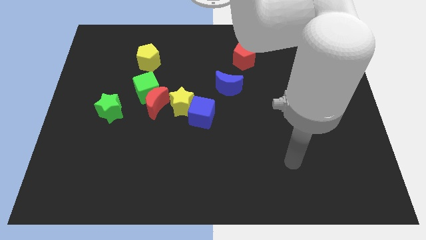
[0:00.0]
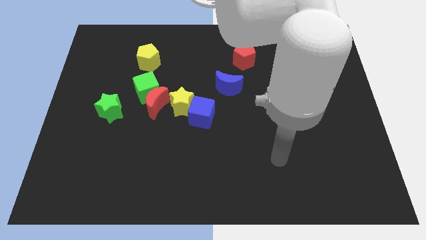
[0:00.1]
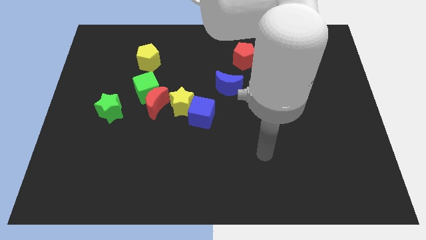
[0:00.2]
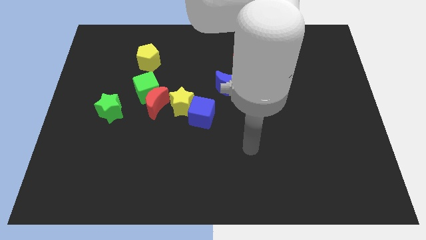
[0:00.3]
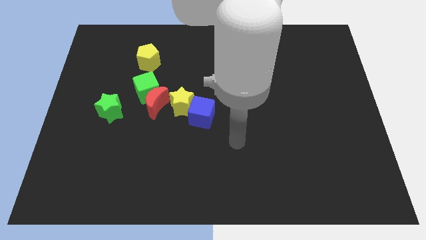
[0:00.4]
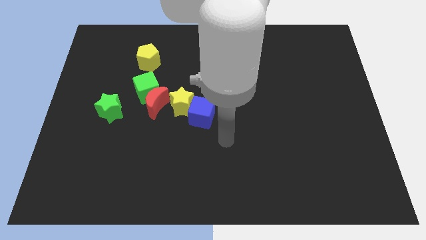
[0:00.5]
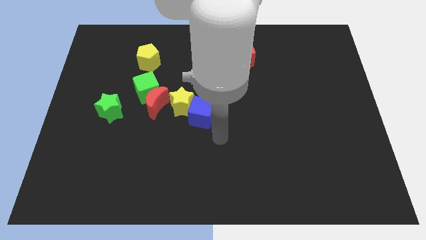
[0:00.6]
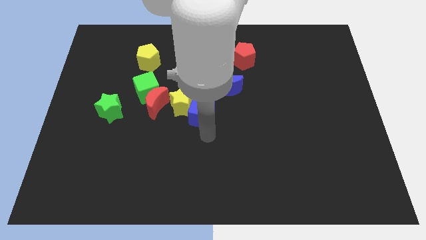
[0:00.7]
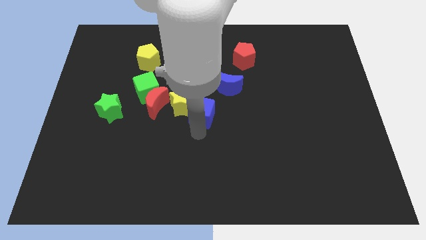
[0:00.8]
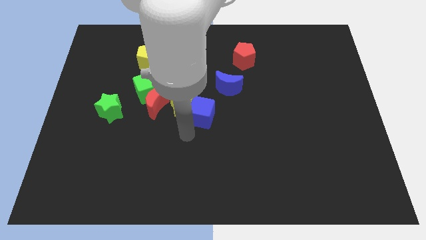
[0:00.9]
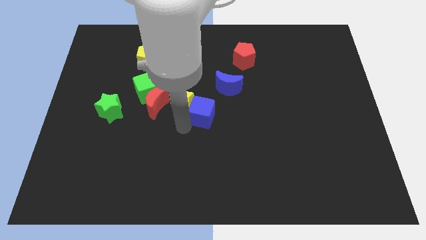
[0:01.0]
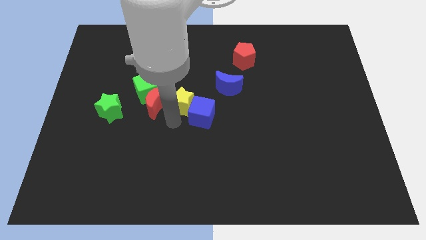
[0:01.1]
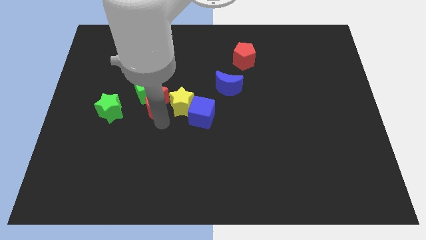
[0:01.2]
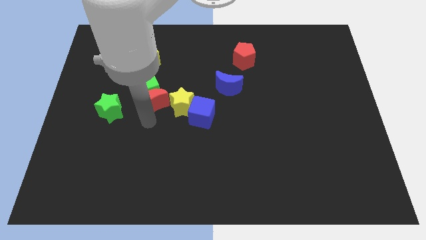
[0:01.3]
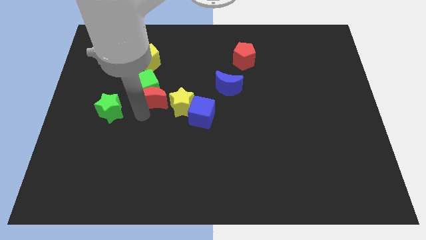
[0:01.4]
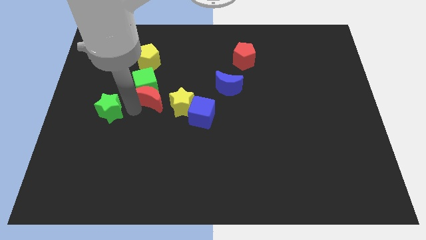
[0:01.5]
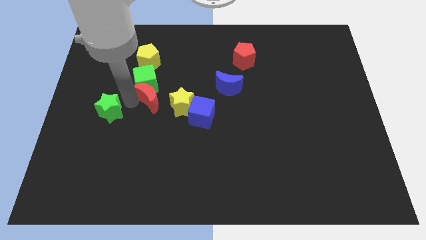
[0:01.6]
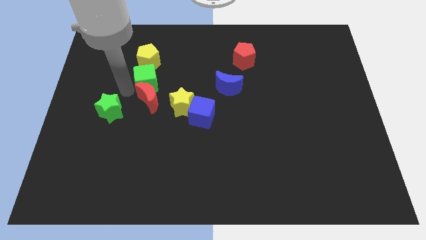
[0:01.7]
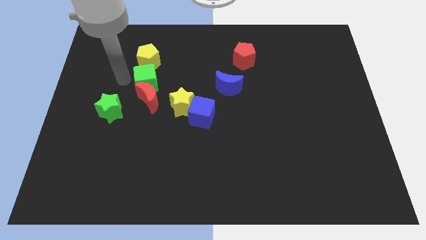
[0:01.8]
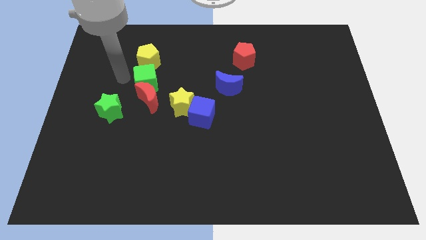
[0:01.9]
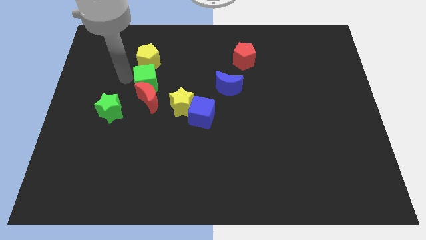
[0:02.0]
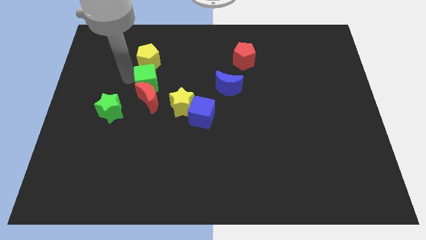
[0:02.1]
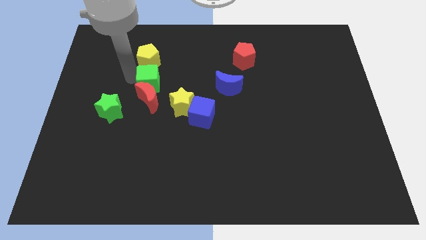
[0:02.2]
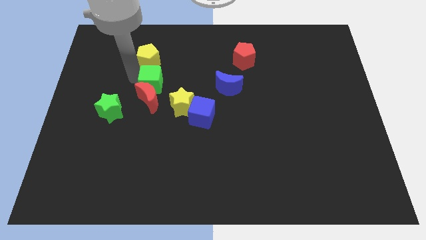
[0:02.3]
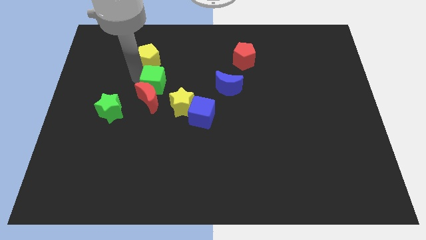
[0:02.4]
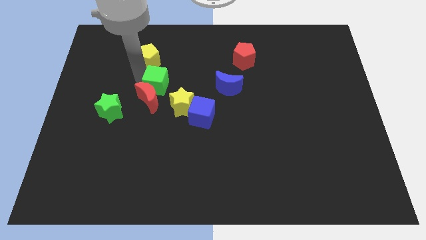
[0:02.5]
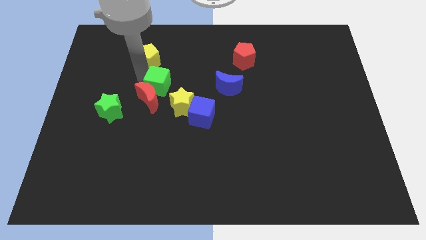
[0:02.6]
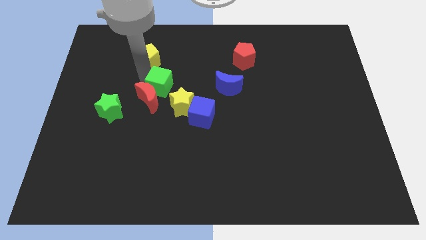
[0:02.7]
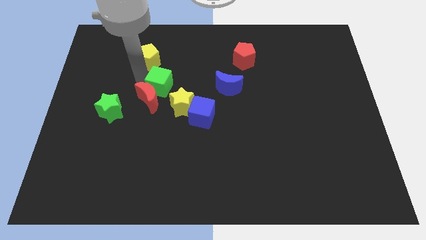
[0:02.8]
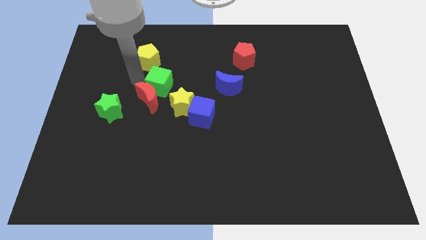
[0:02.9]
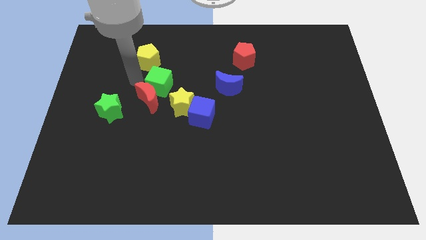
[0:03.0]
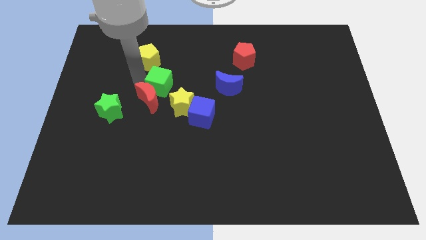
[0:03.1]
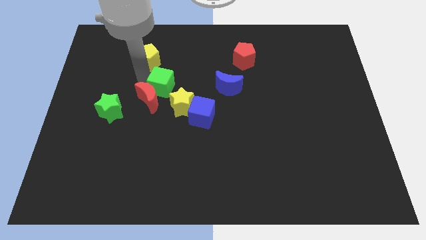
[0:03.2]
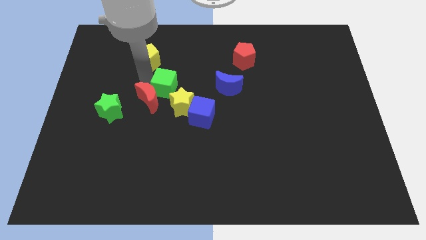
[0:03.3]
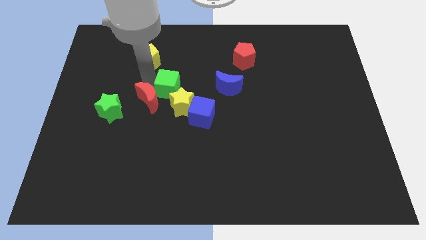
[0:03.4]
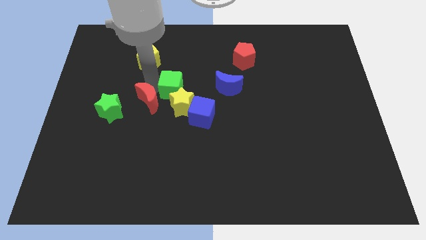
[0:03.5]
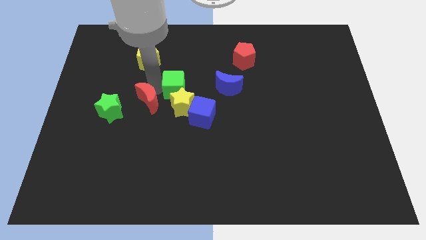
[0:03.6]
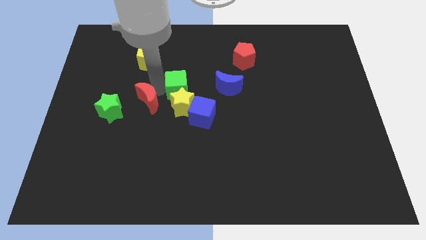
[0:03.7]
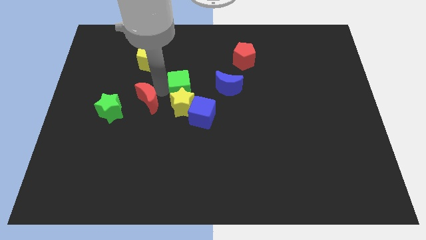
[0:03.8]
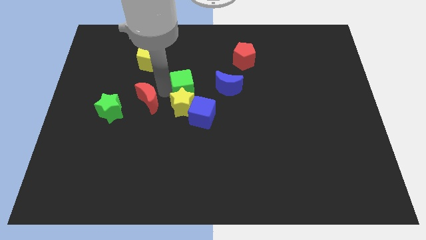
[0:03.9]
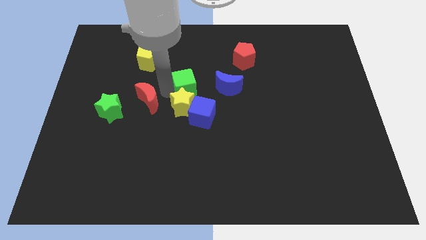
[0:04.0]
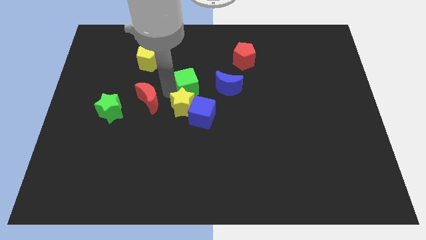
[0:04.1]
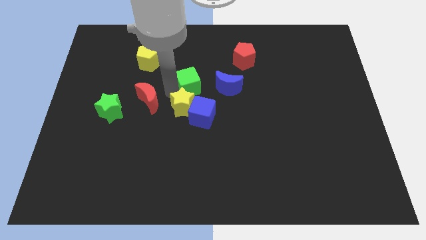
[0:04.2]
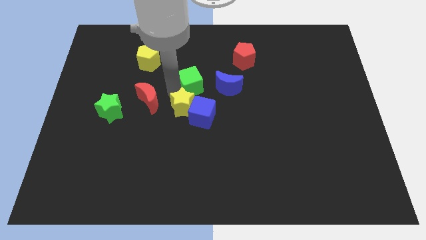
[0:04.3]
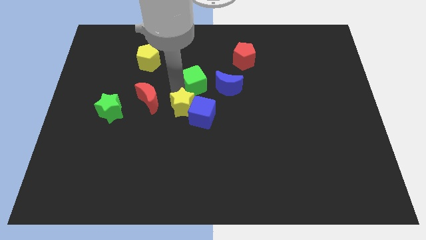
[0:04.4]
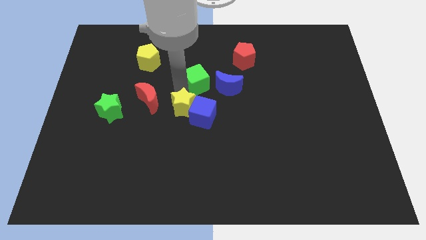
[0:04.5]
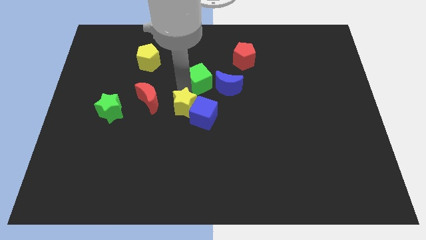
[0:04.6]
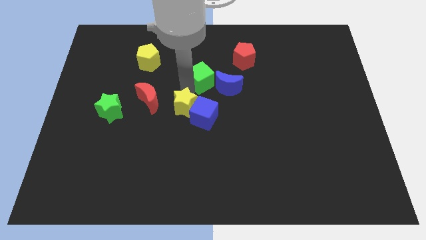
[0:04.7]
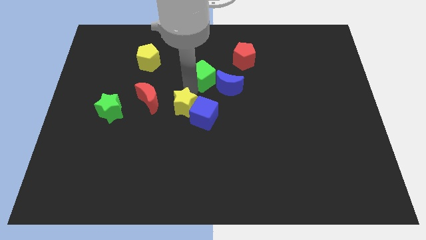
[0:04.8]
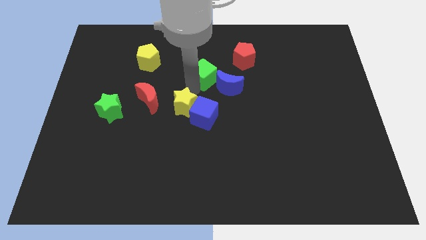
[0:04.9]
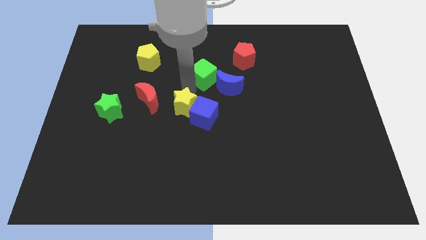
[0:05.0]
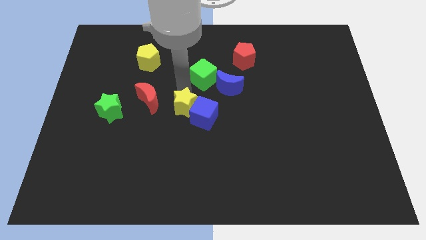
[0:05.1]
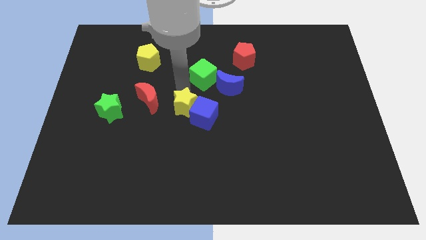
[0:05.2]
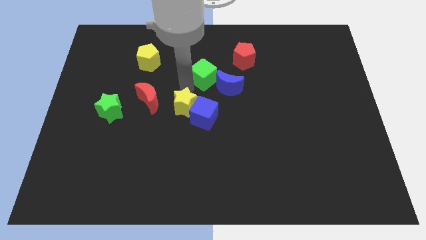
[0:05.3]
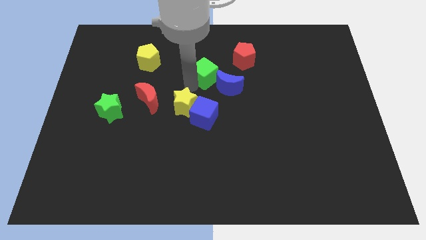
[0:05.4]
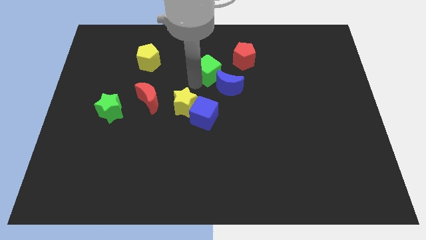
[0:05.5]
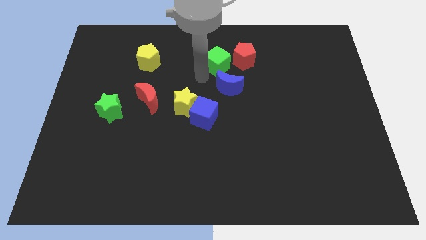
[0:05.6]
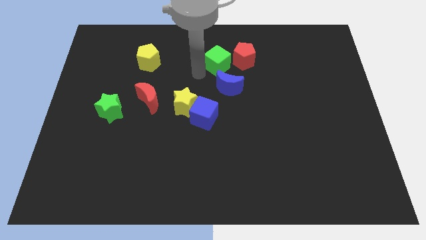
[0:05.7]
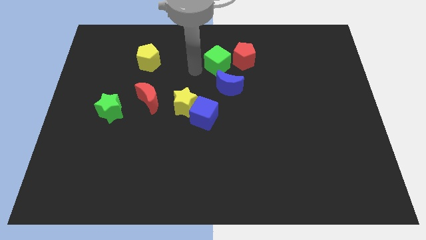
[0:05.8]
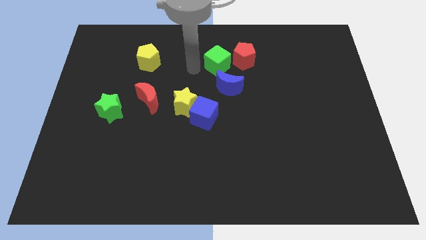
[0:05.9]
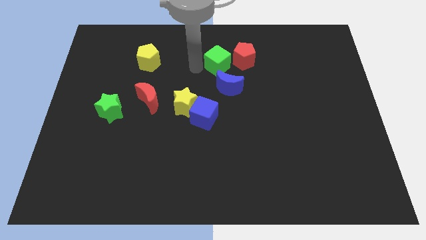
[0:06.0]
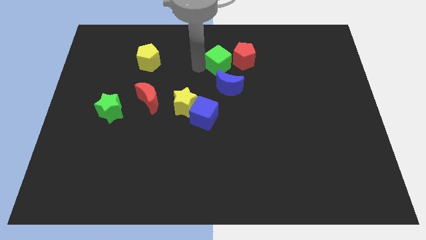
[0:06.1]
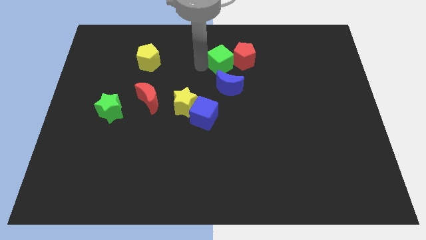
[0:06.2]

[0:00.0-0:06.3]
move the green cube close to the red pentagon

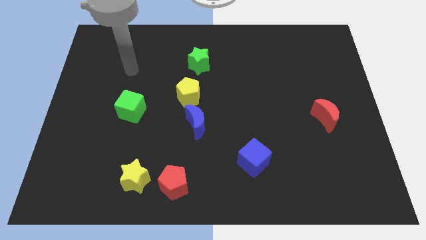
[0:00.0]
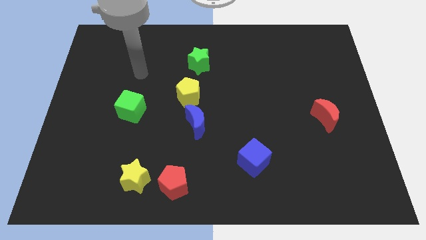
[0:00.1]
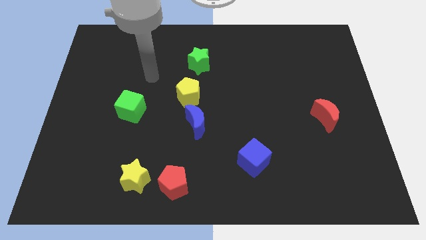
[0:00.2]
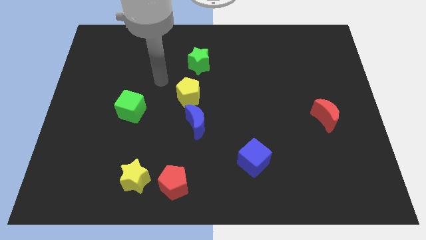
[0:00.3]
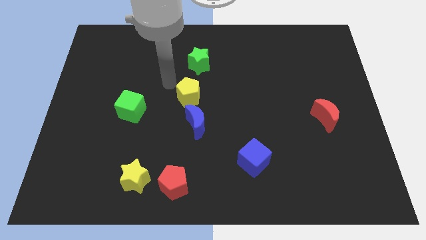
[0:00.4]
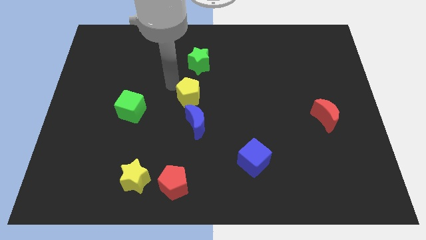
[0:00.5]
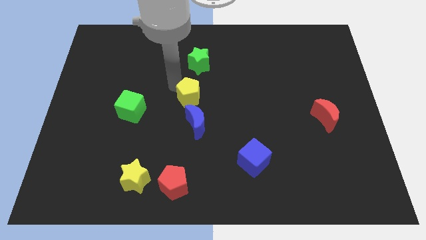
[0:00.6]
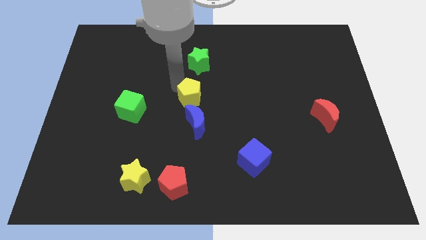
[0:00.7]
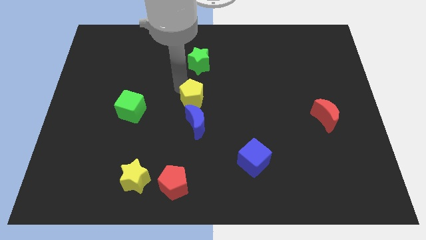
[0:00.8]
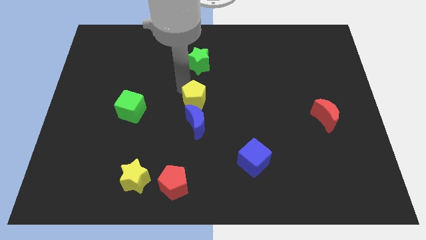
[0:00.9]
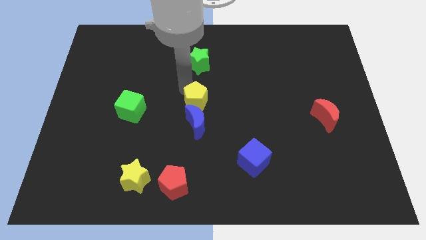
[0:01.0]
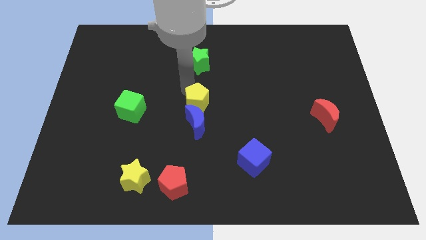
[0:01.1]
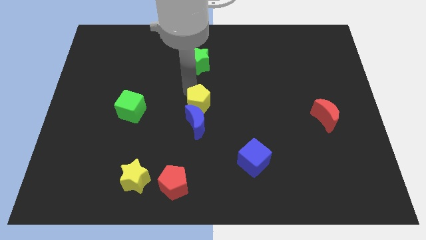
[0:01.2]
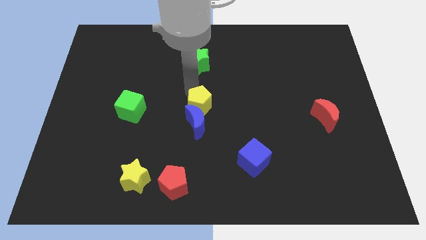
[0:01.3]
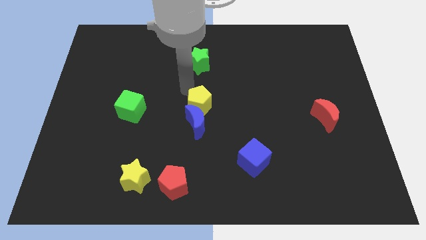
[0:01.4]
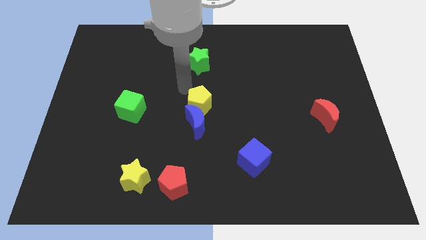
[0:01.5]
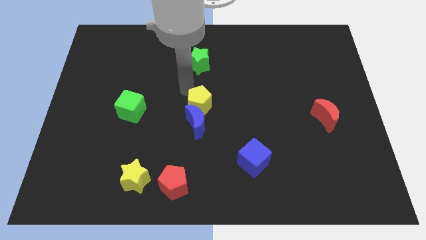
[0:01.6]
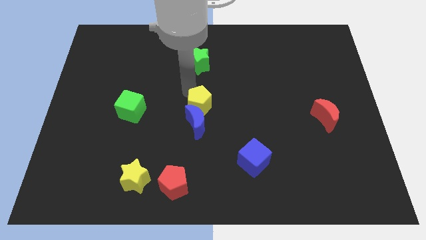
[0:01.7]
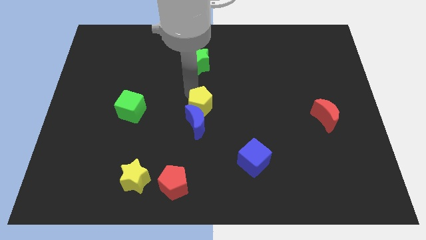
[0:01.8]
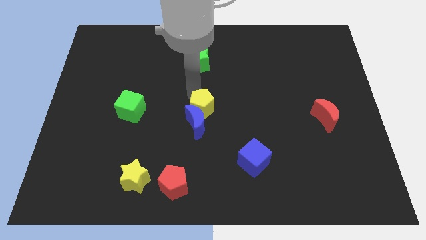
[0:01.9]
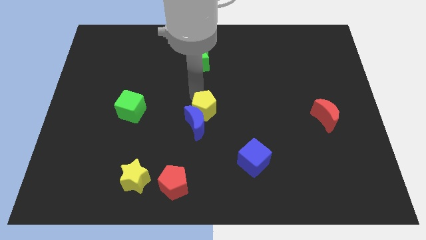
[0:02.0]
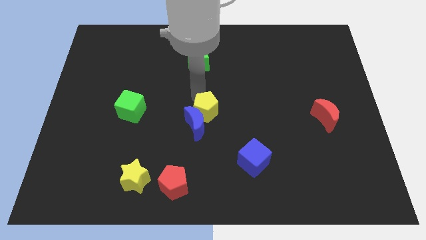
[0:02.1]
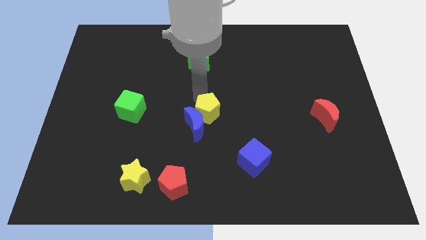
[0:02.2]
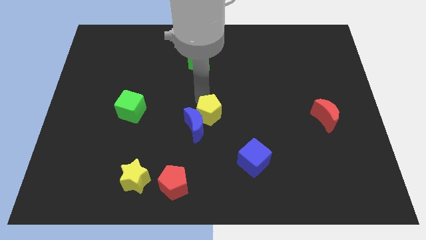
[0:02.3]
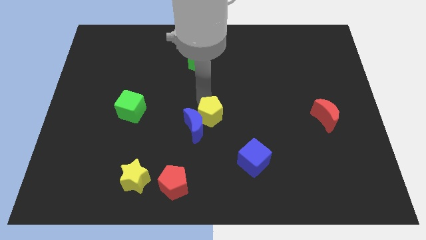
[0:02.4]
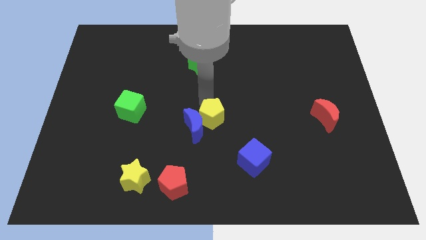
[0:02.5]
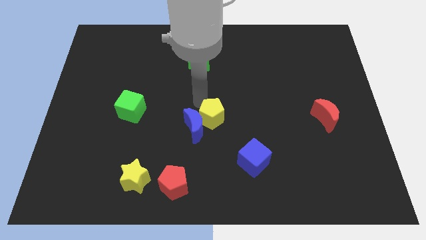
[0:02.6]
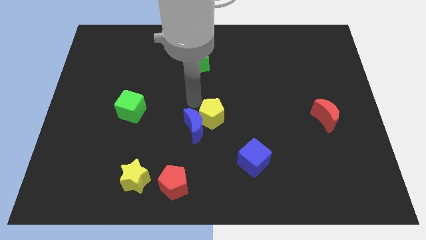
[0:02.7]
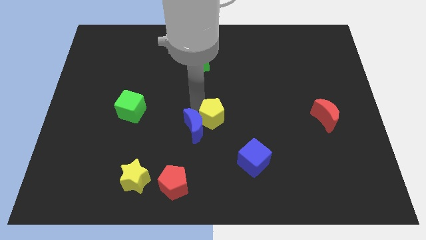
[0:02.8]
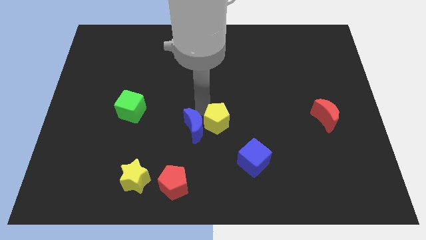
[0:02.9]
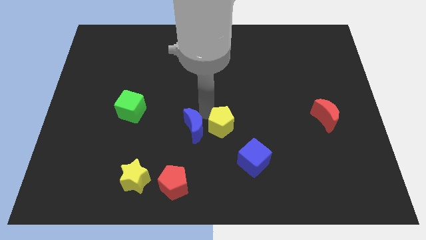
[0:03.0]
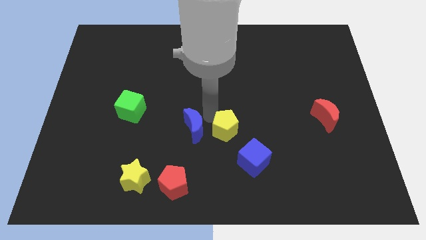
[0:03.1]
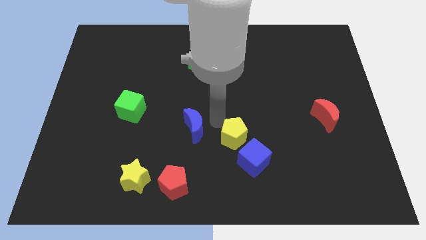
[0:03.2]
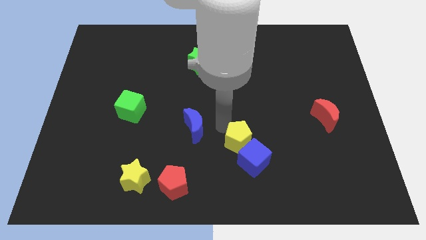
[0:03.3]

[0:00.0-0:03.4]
slide the yellow pentagon close to the blue cube
